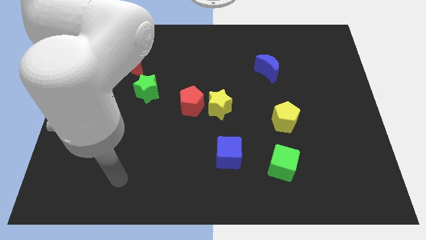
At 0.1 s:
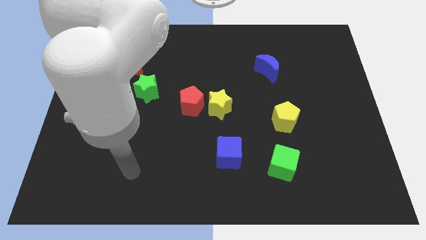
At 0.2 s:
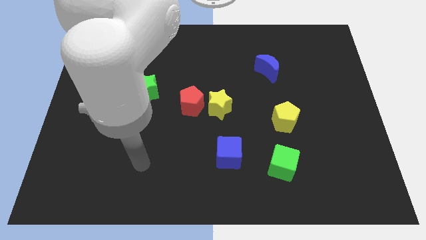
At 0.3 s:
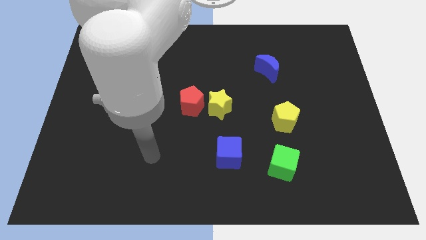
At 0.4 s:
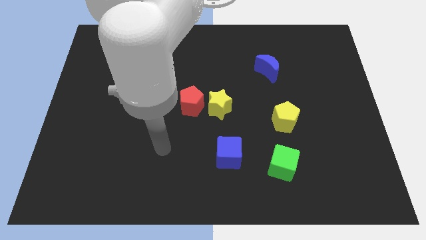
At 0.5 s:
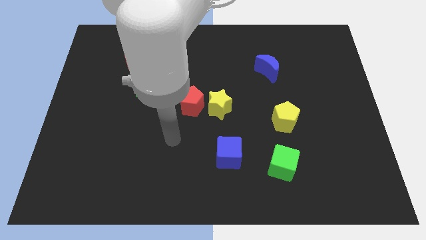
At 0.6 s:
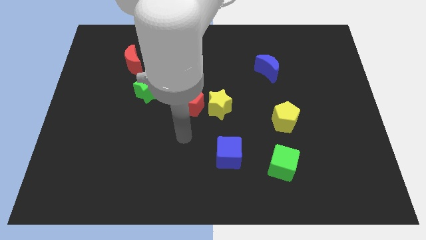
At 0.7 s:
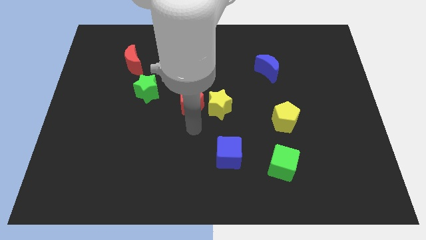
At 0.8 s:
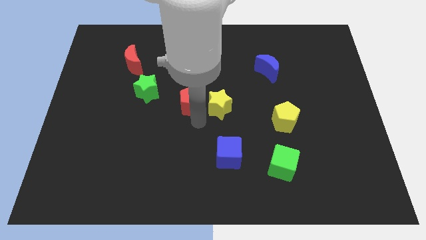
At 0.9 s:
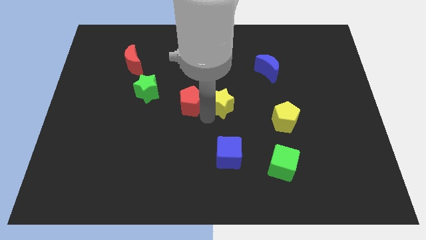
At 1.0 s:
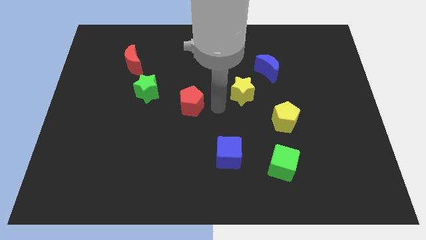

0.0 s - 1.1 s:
move the red pentagon away from the yellow star

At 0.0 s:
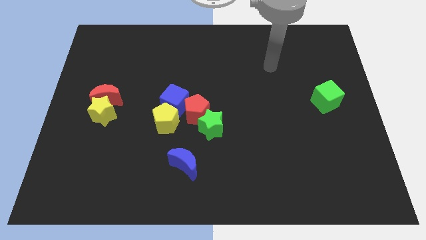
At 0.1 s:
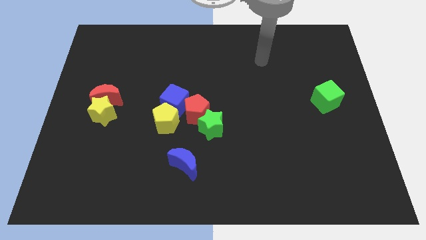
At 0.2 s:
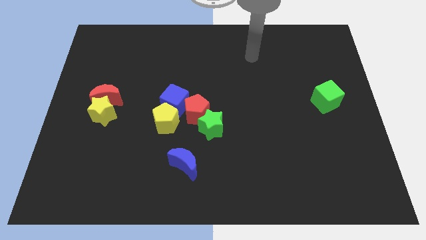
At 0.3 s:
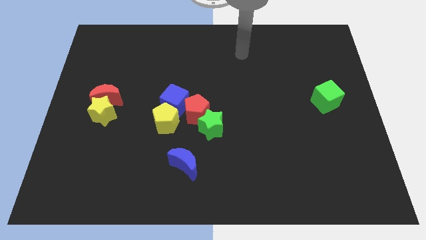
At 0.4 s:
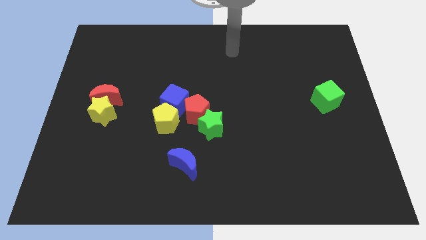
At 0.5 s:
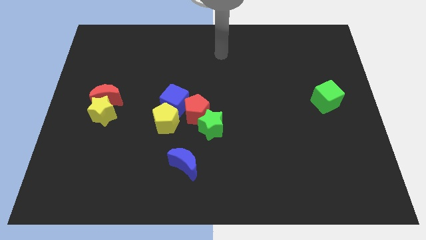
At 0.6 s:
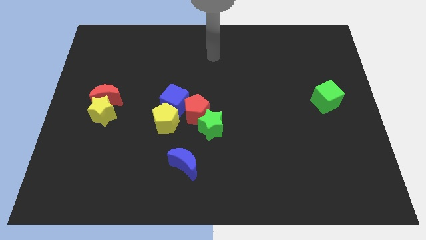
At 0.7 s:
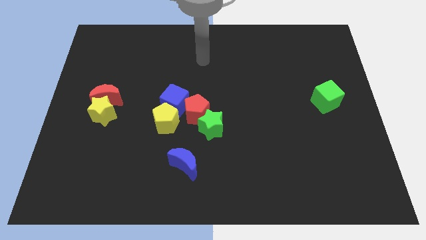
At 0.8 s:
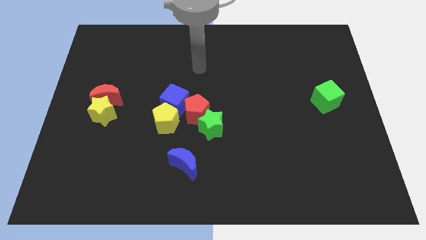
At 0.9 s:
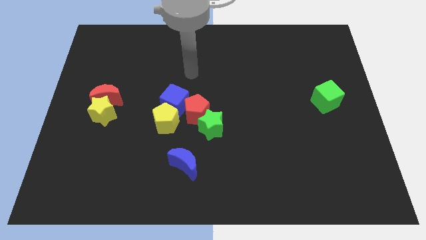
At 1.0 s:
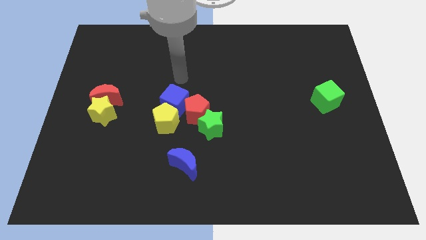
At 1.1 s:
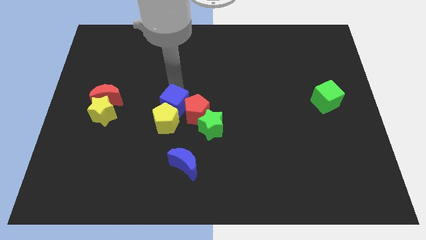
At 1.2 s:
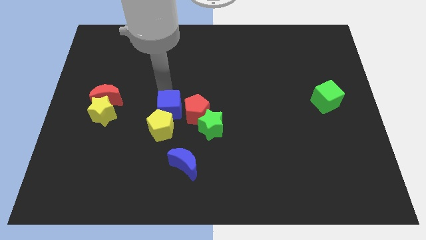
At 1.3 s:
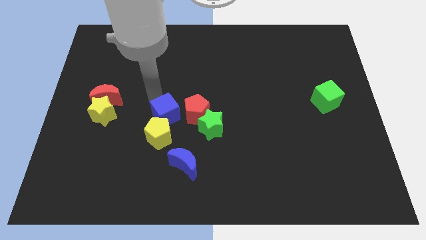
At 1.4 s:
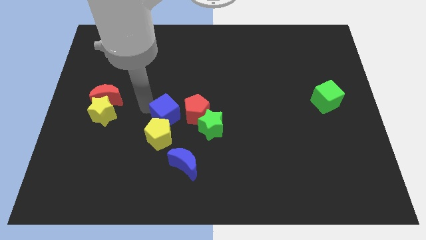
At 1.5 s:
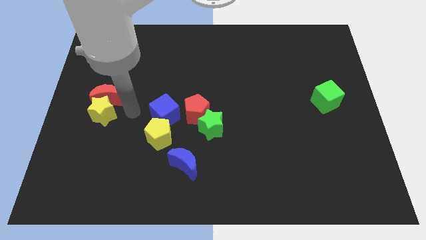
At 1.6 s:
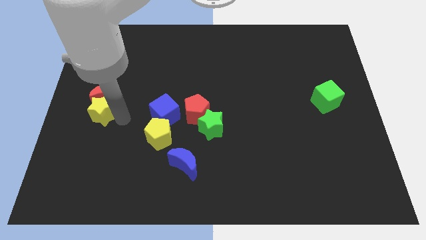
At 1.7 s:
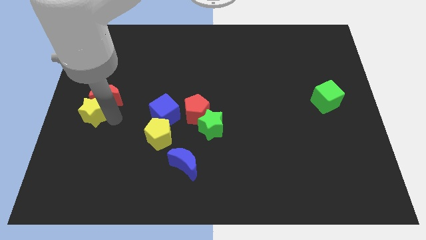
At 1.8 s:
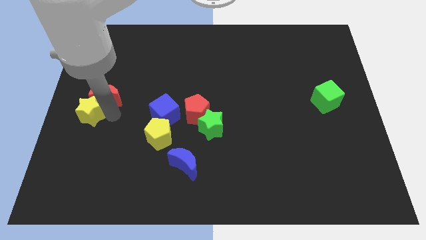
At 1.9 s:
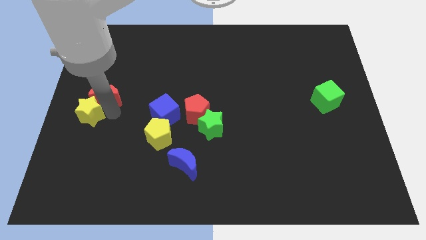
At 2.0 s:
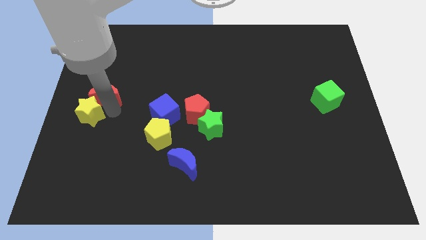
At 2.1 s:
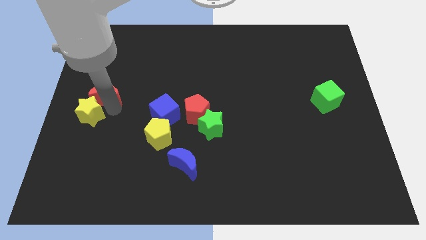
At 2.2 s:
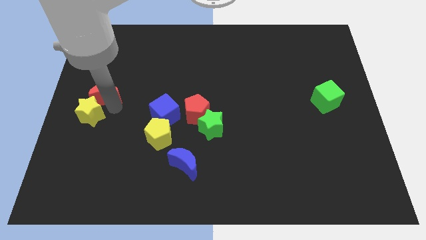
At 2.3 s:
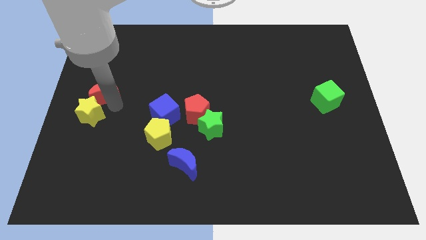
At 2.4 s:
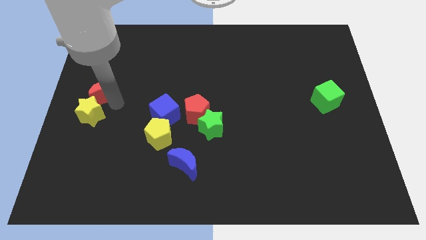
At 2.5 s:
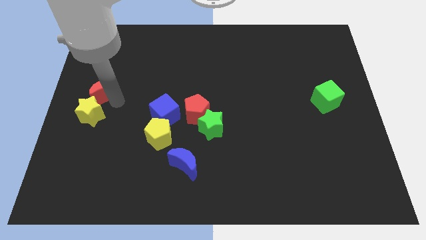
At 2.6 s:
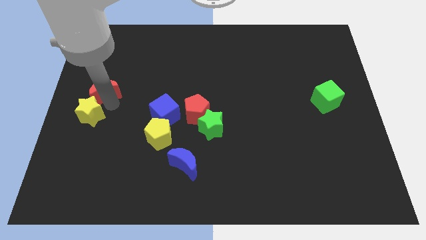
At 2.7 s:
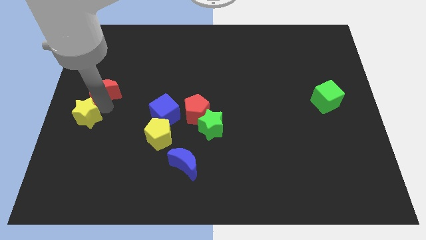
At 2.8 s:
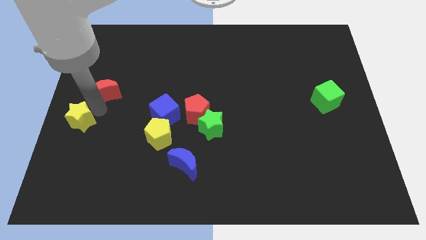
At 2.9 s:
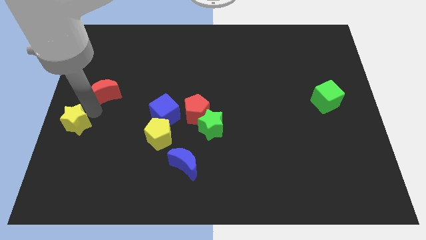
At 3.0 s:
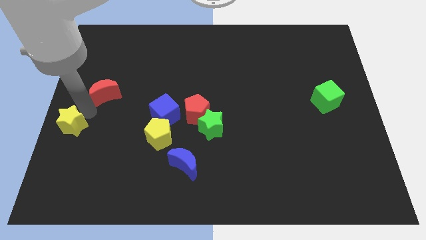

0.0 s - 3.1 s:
move the red moon away from the yellow star

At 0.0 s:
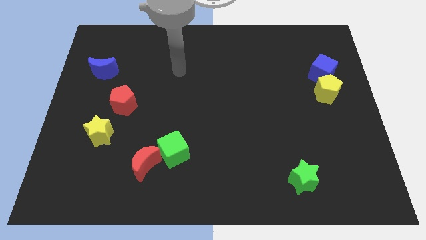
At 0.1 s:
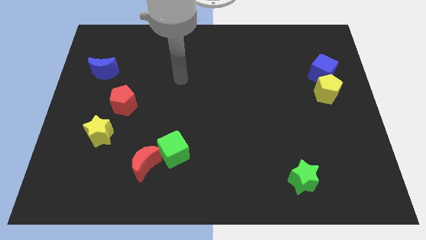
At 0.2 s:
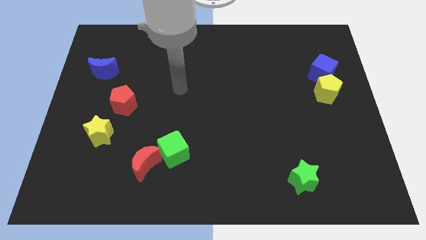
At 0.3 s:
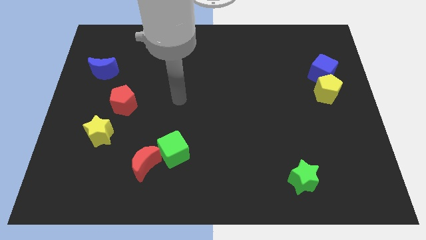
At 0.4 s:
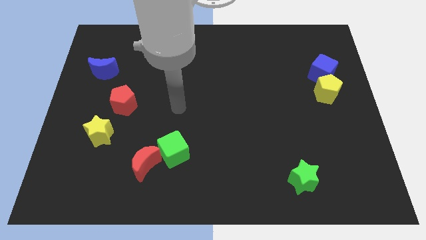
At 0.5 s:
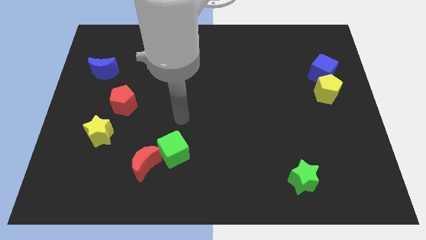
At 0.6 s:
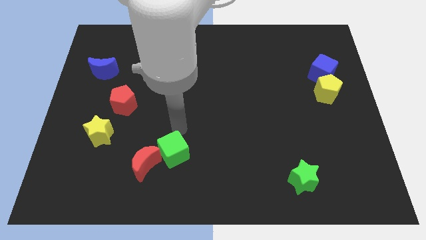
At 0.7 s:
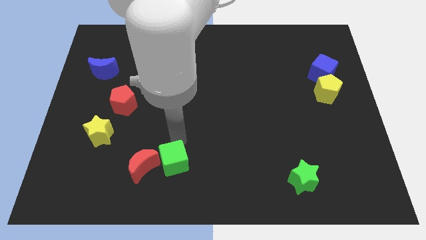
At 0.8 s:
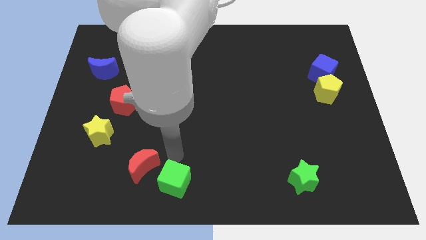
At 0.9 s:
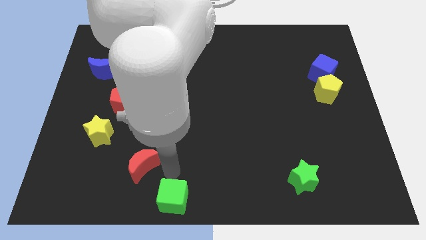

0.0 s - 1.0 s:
pull the red moon apart from the green cube

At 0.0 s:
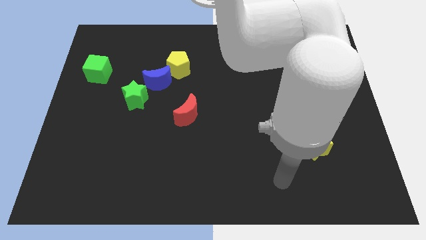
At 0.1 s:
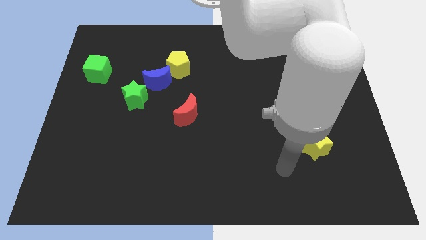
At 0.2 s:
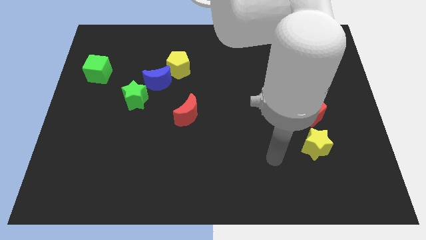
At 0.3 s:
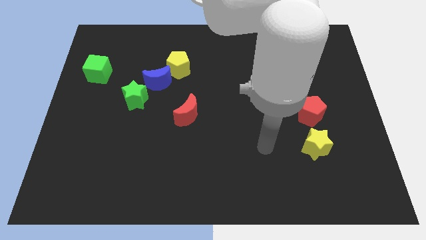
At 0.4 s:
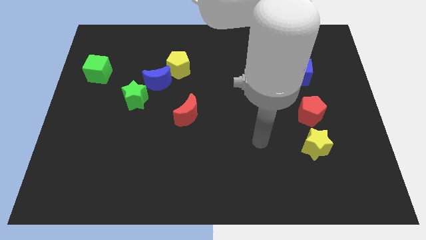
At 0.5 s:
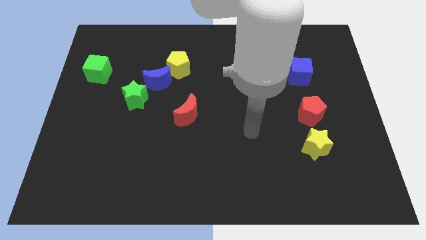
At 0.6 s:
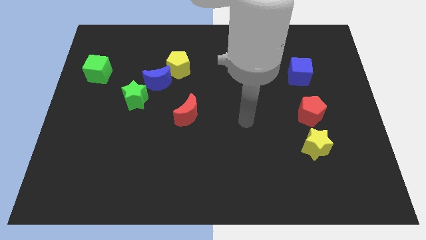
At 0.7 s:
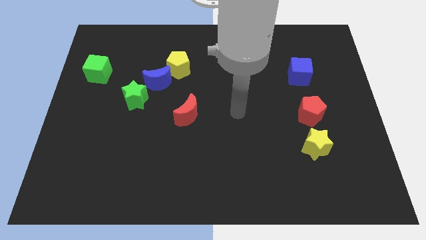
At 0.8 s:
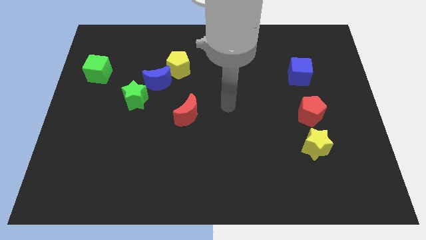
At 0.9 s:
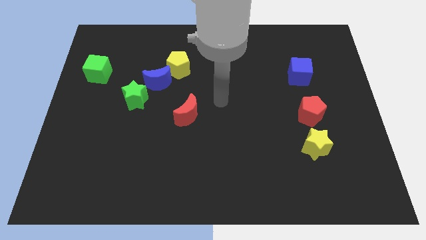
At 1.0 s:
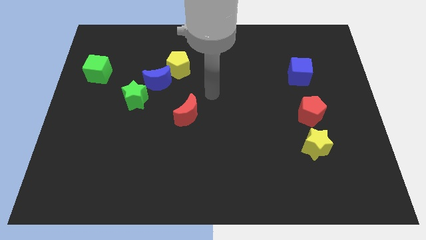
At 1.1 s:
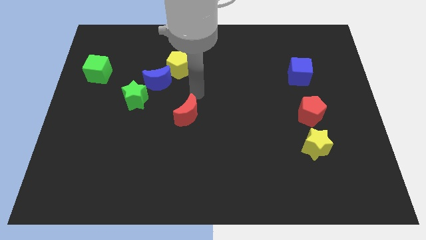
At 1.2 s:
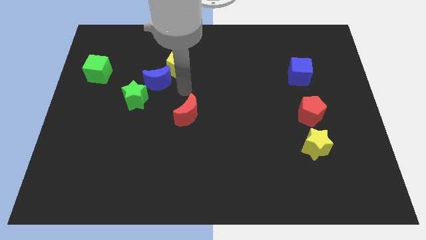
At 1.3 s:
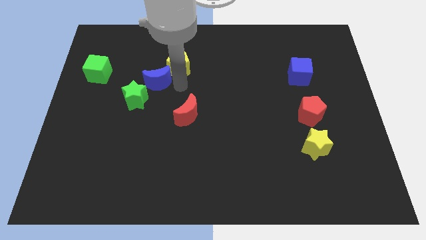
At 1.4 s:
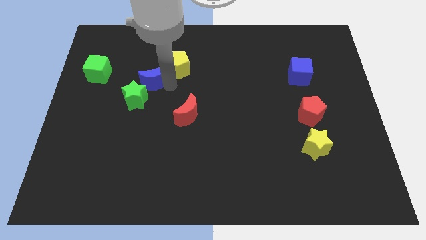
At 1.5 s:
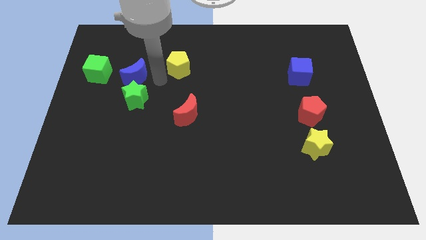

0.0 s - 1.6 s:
separate the yellow pentagon from the blue moon

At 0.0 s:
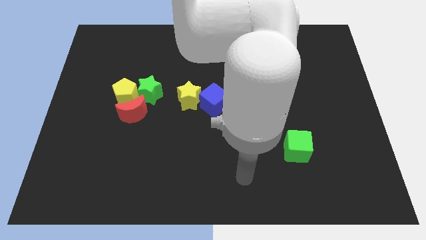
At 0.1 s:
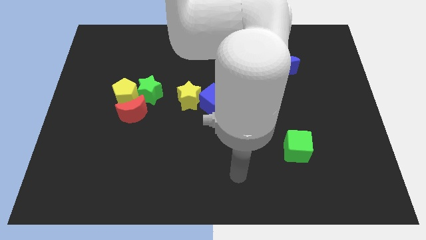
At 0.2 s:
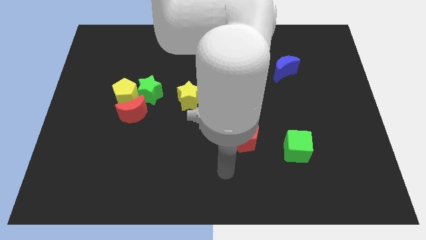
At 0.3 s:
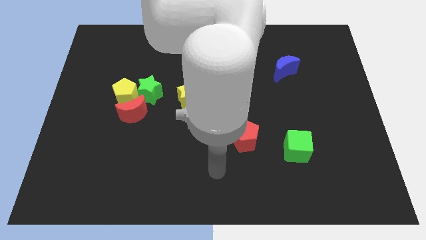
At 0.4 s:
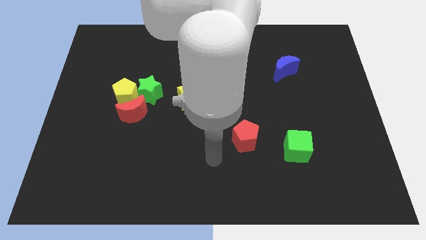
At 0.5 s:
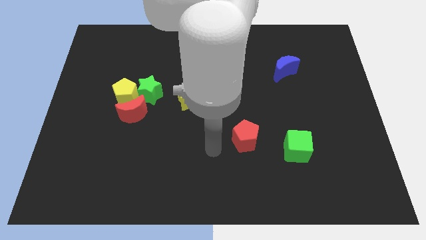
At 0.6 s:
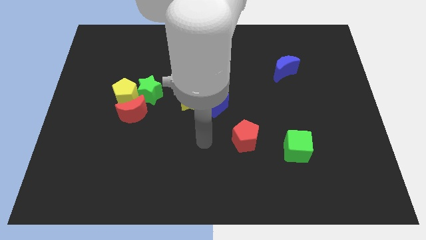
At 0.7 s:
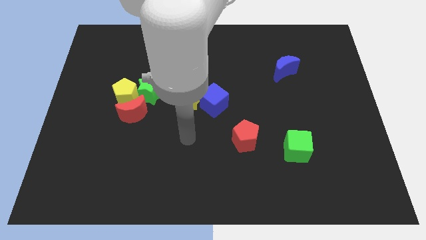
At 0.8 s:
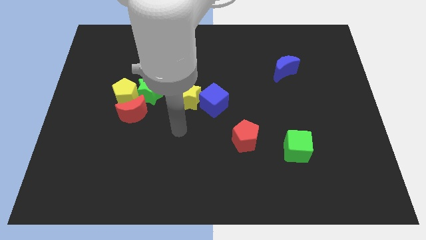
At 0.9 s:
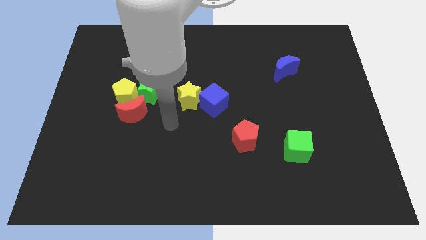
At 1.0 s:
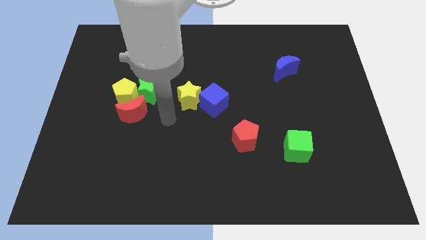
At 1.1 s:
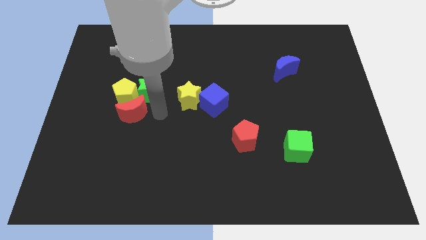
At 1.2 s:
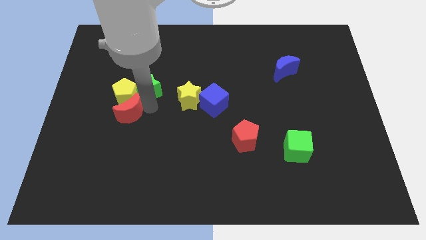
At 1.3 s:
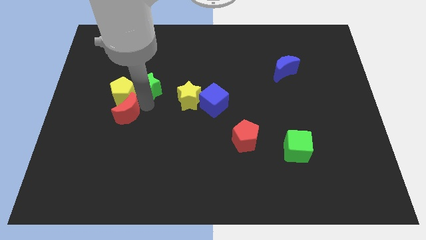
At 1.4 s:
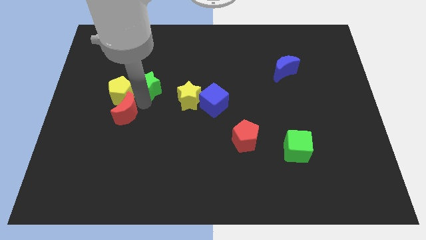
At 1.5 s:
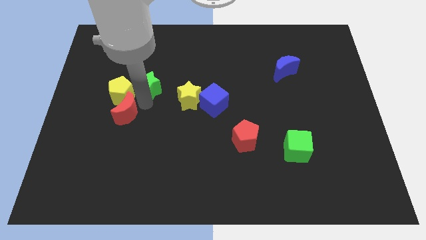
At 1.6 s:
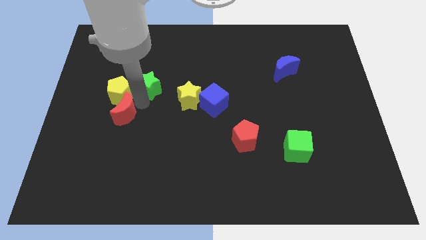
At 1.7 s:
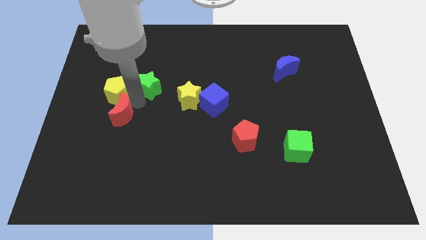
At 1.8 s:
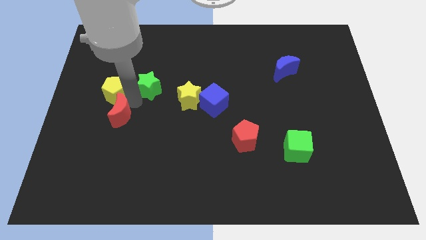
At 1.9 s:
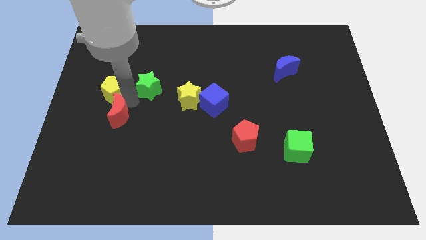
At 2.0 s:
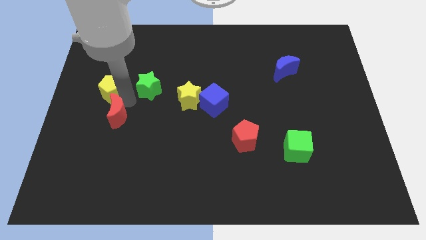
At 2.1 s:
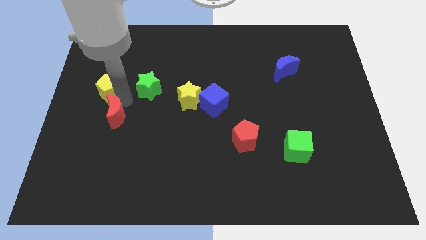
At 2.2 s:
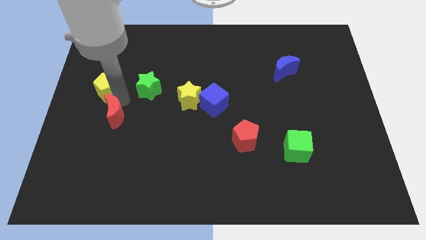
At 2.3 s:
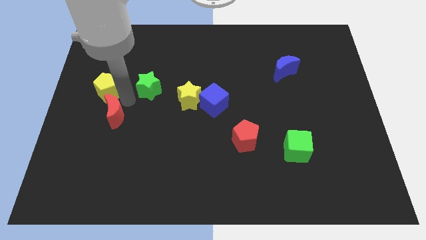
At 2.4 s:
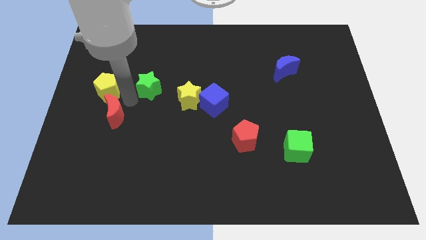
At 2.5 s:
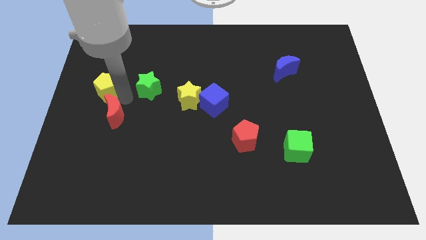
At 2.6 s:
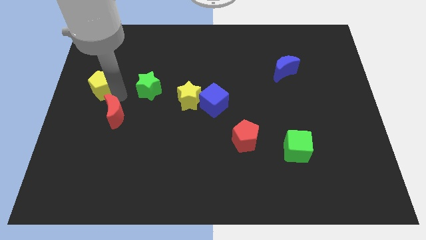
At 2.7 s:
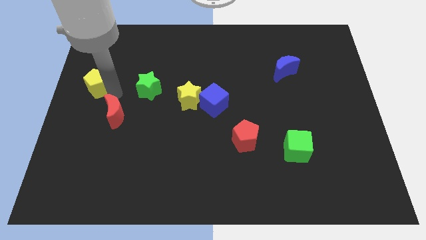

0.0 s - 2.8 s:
move the yellow pentagon away from the red moon and green star
